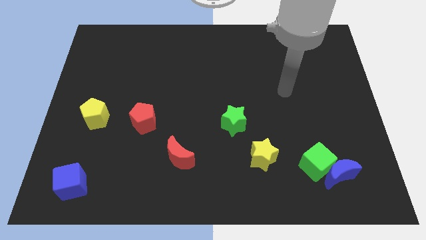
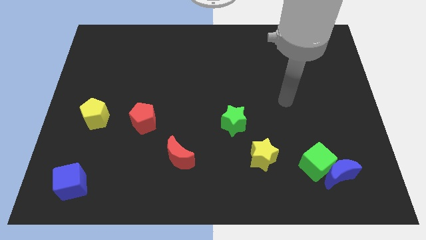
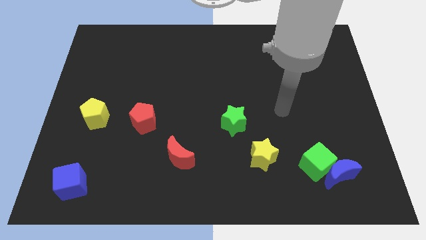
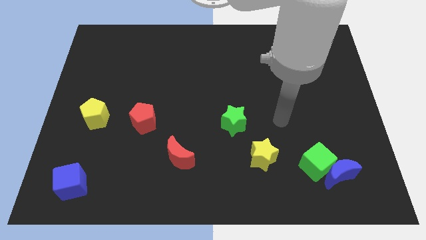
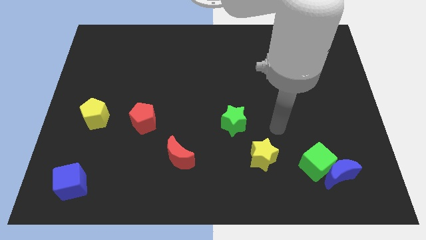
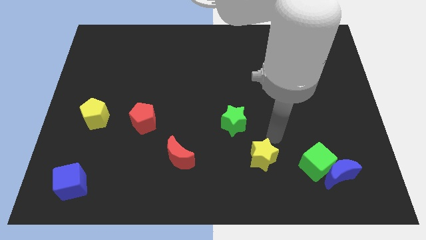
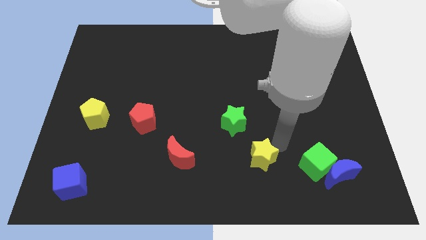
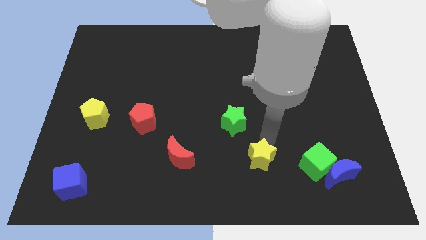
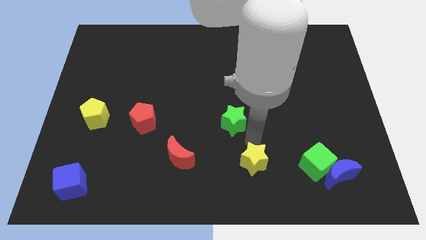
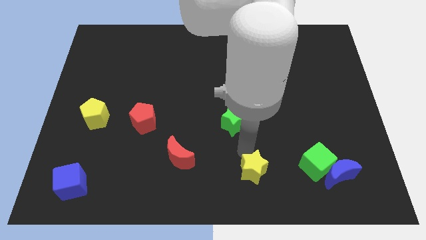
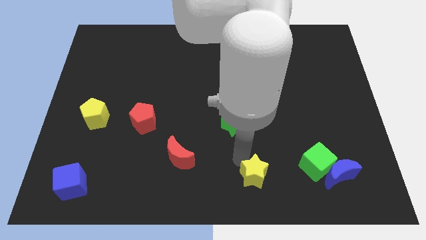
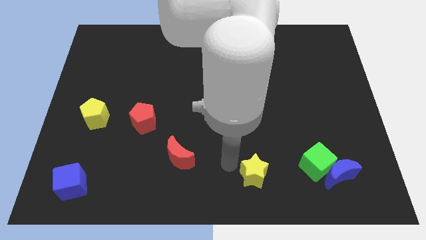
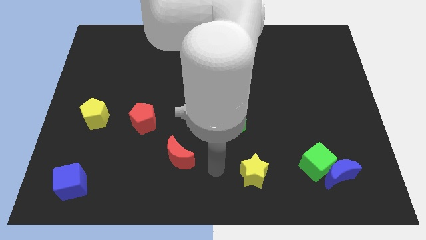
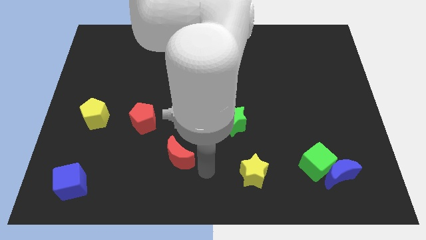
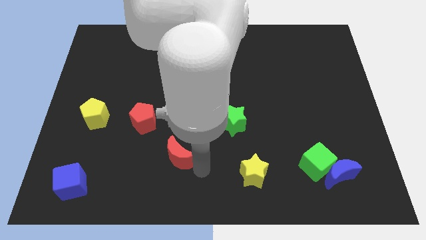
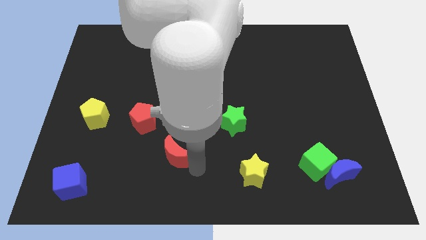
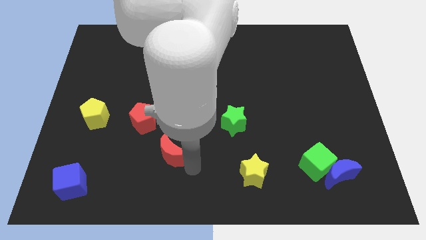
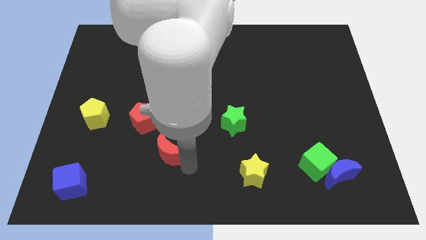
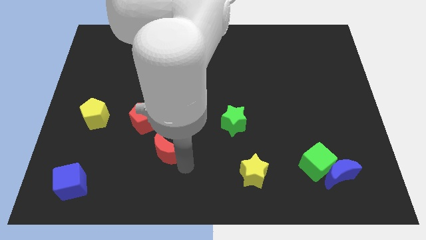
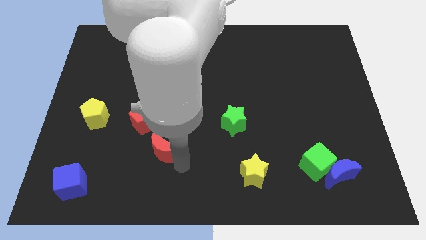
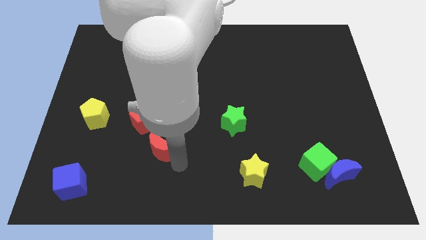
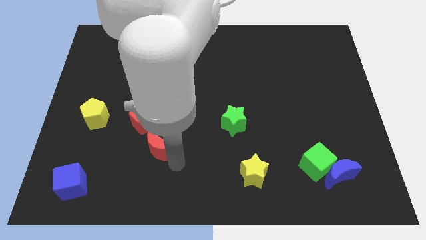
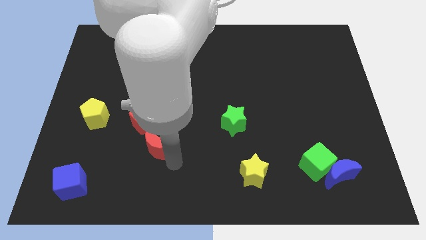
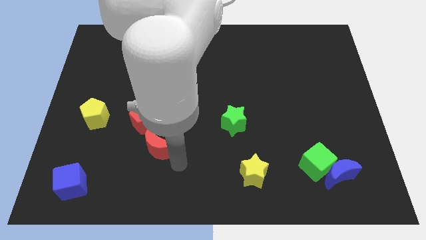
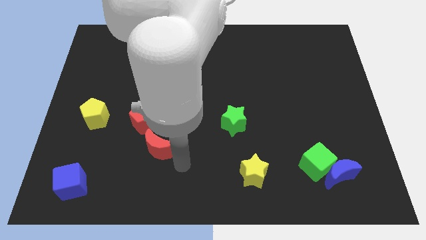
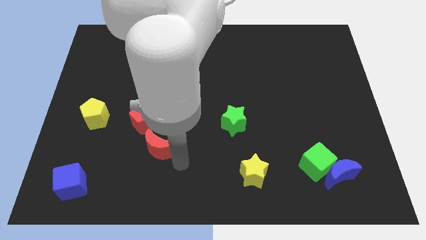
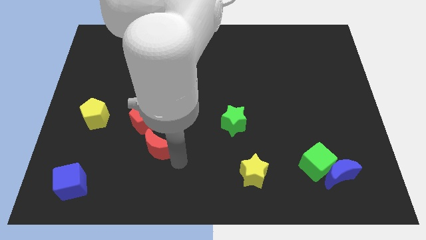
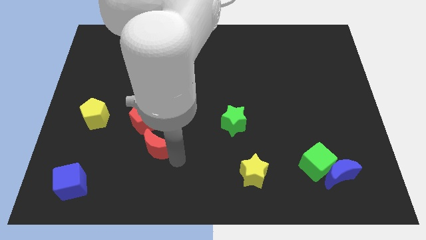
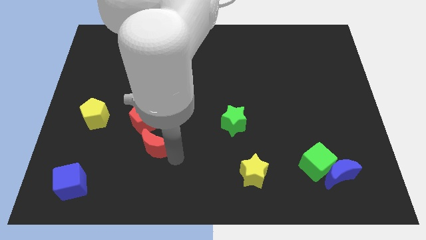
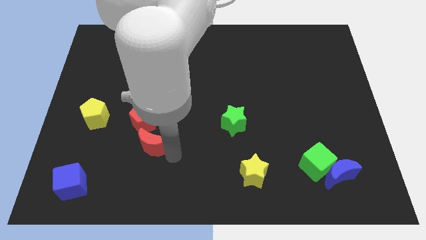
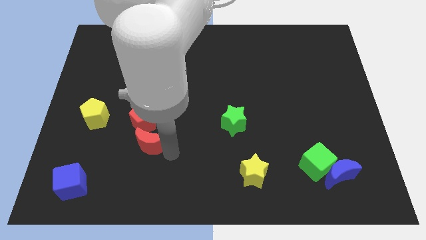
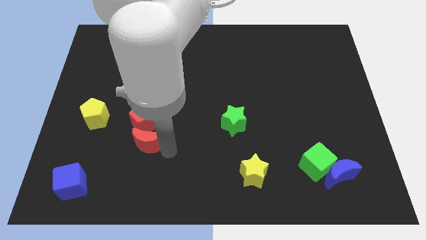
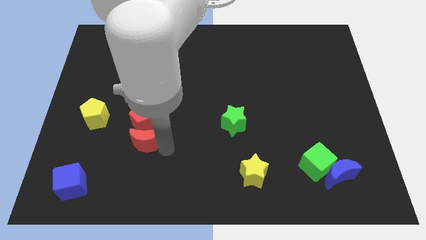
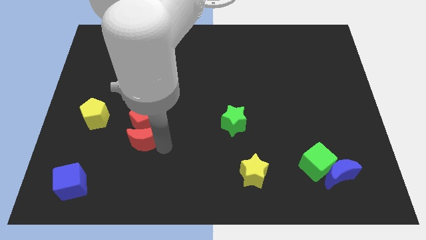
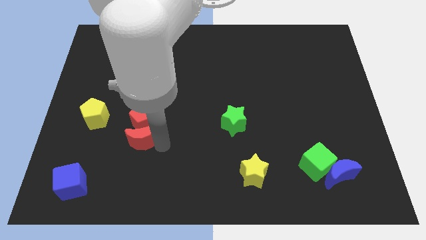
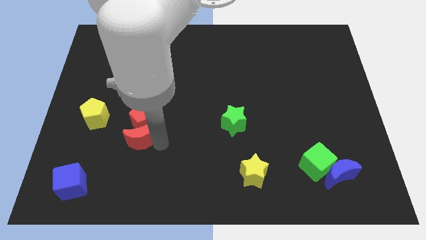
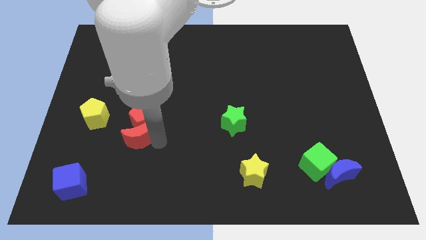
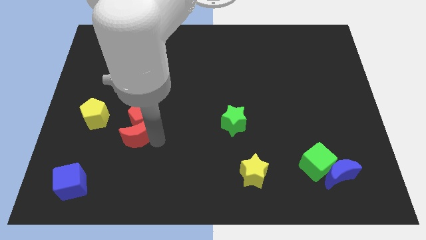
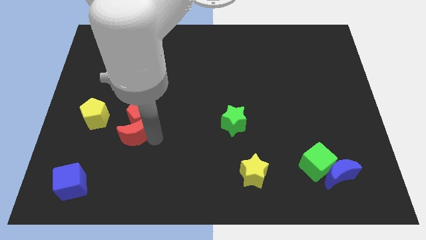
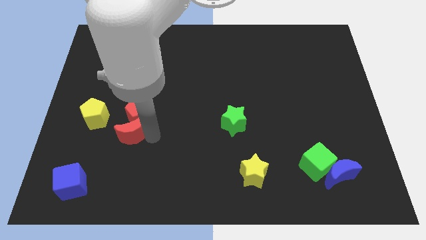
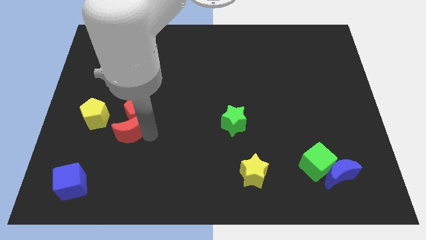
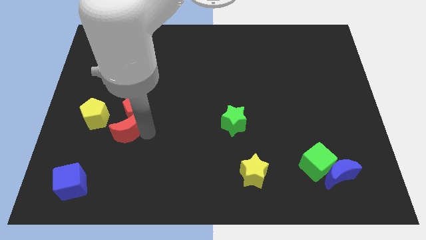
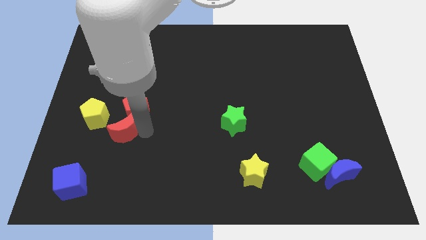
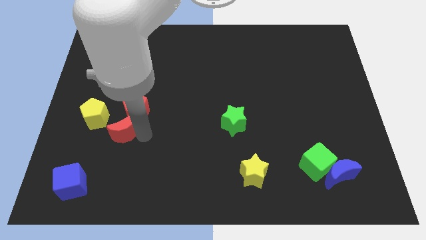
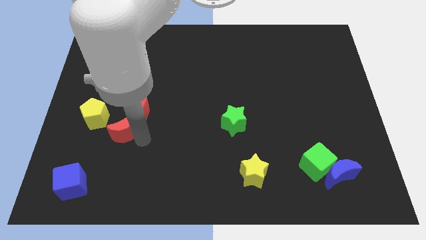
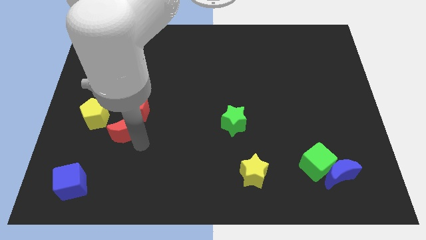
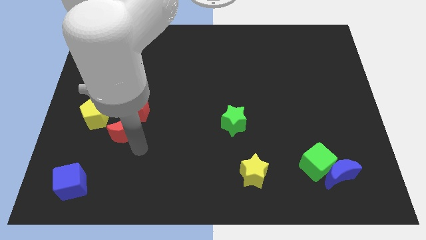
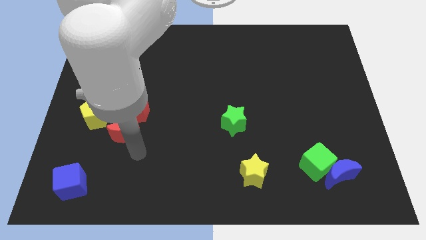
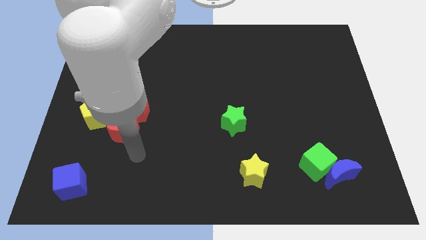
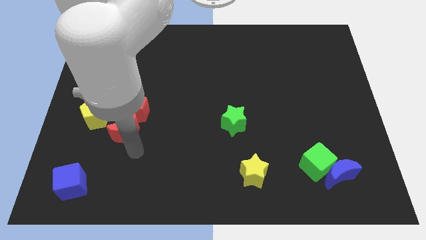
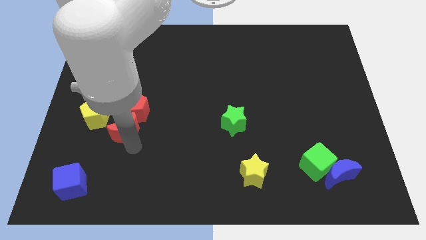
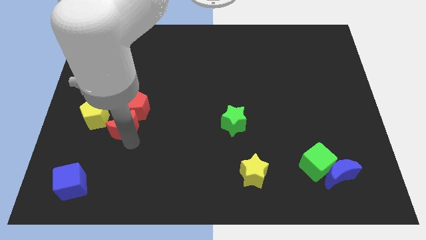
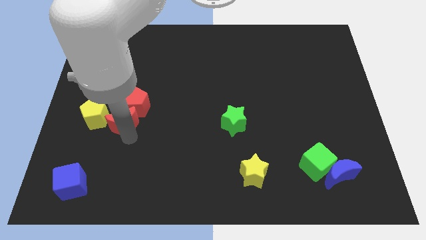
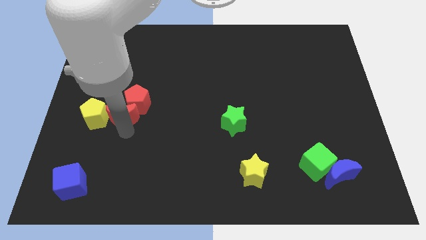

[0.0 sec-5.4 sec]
move the red moon to the top right side of the yellow pentagon

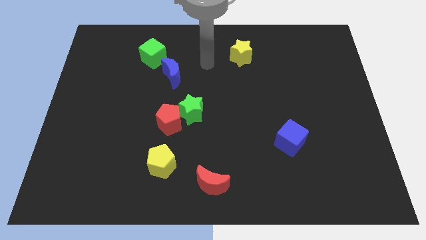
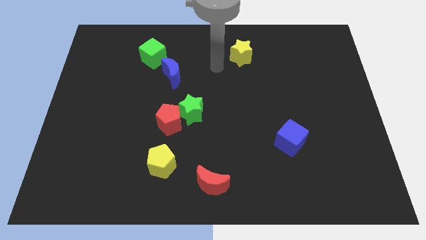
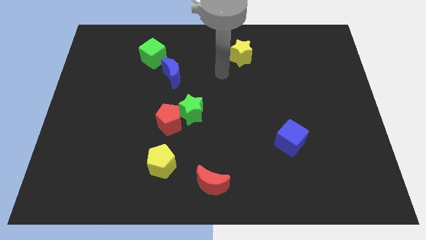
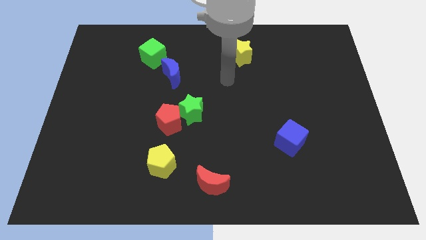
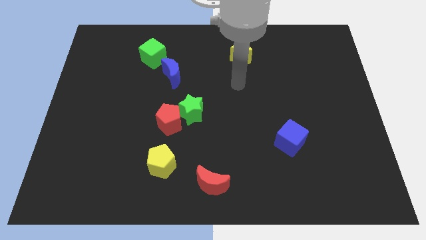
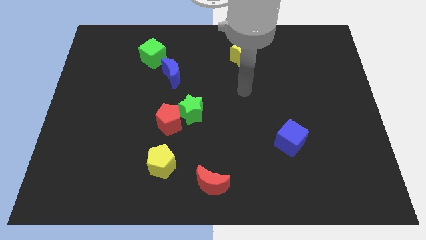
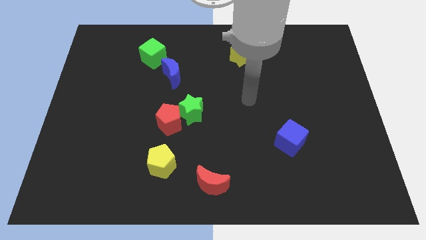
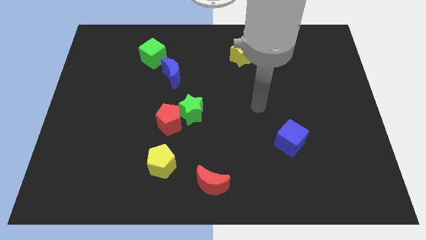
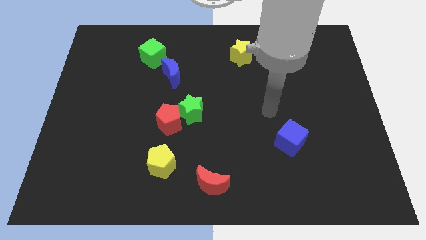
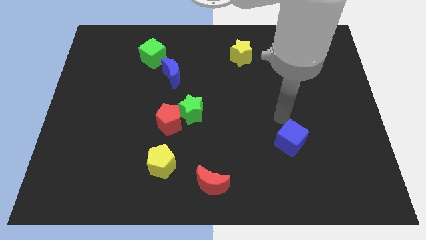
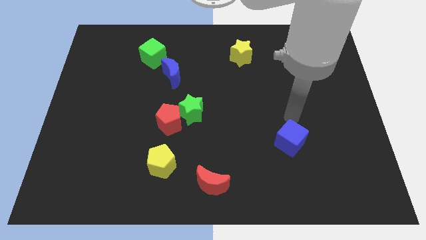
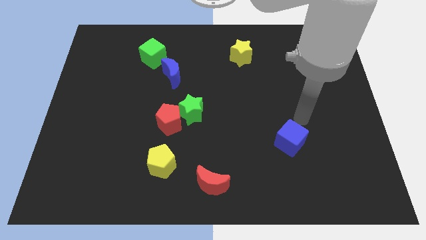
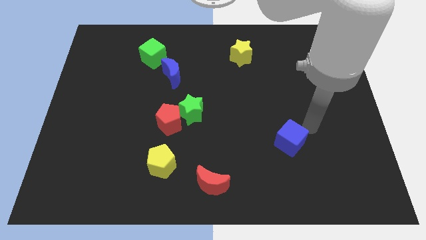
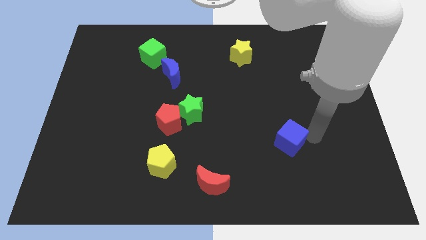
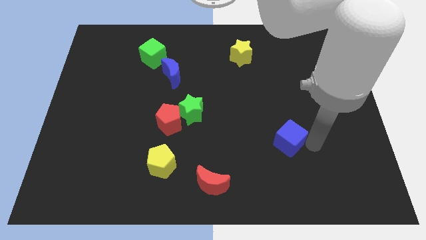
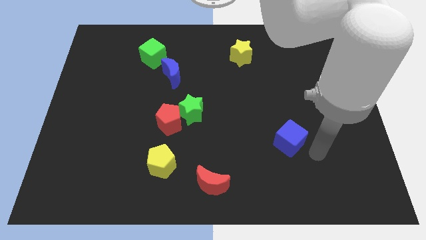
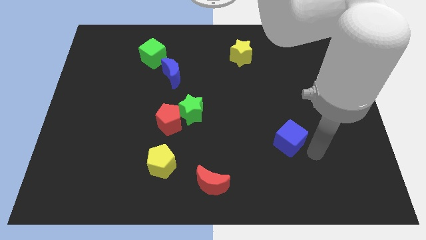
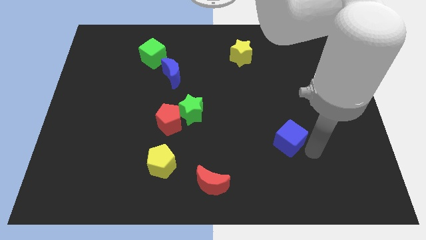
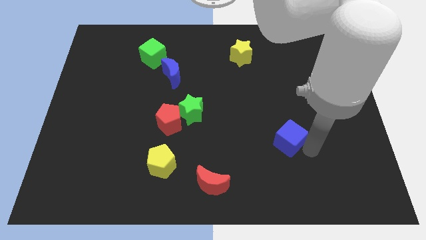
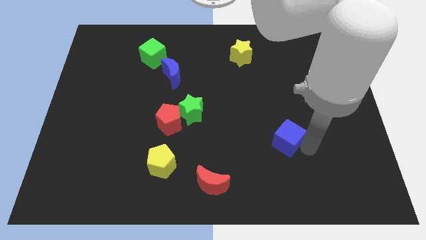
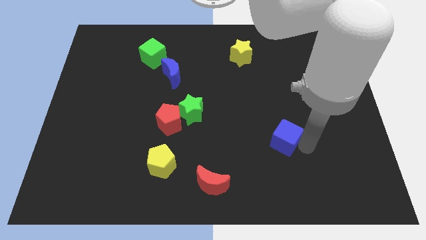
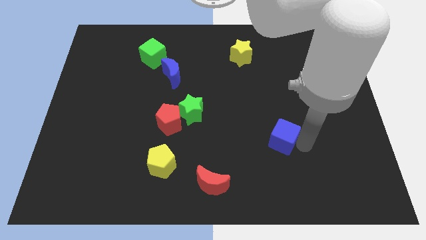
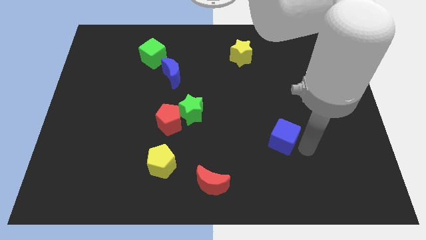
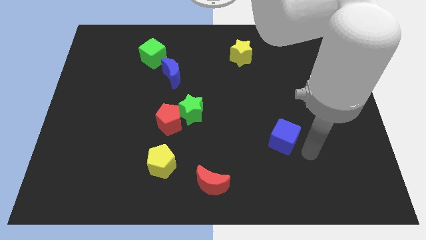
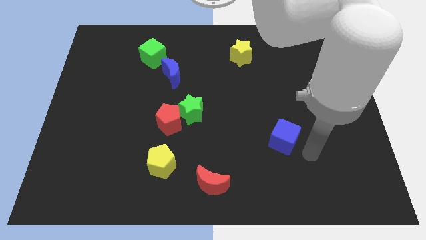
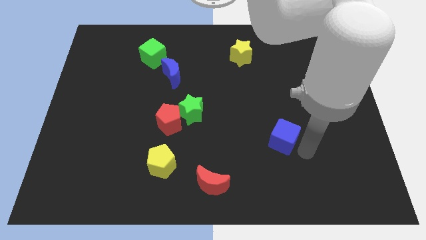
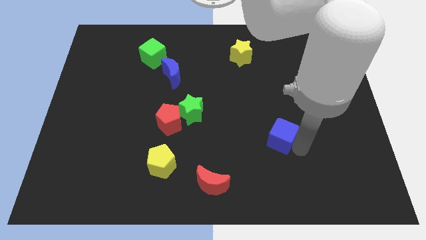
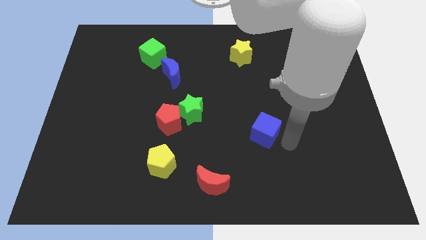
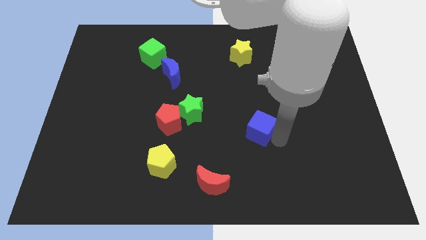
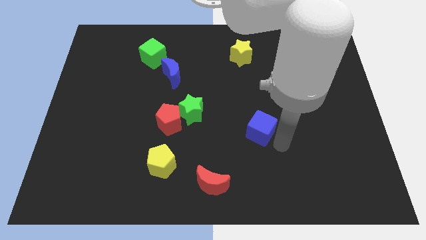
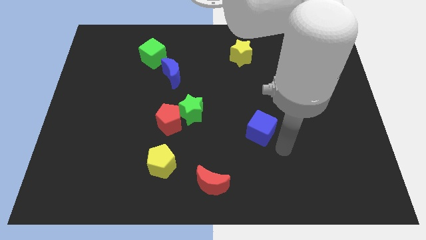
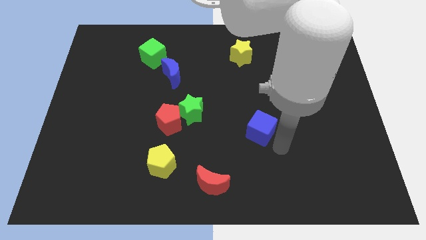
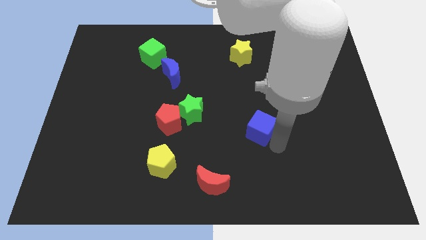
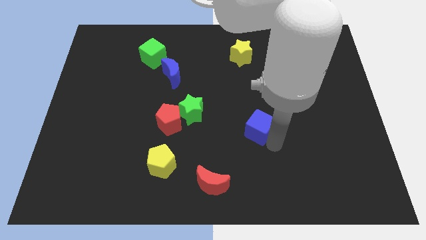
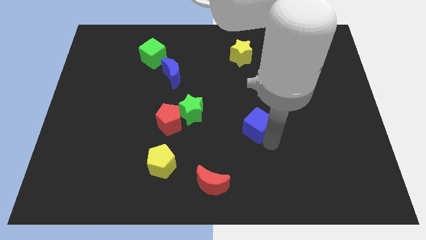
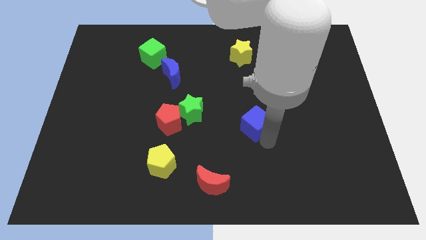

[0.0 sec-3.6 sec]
move the blue cube just right of the green star
